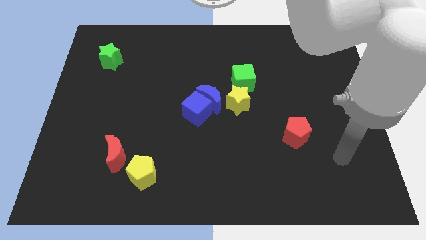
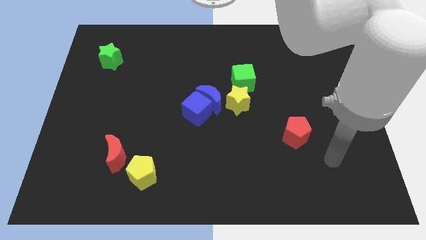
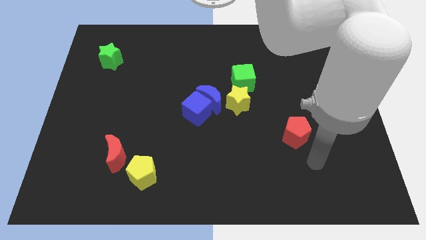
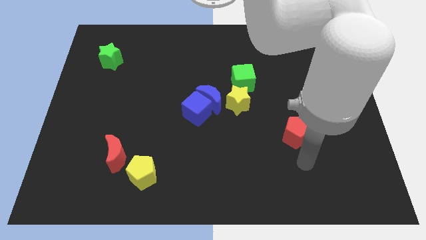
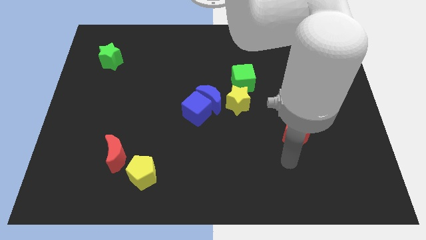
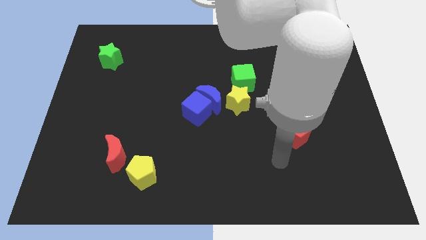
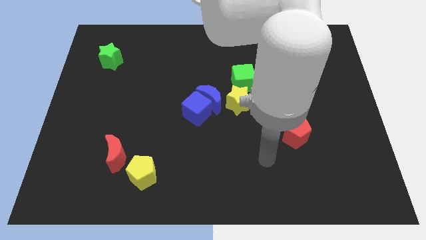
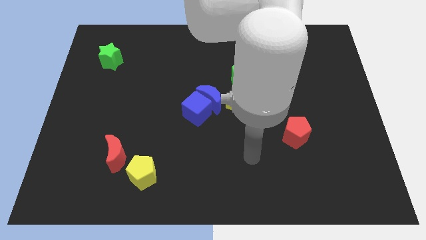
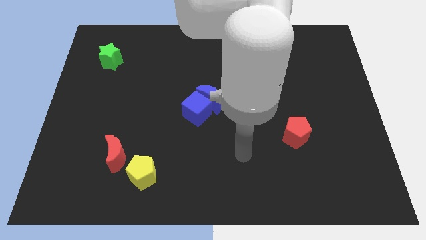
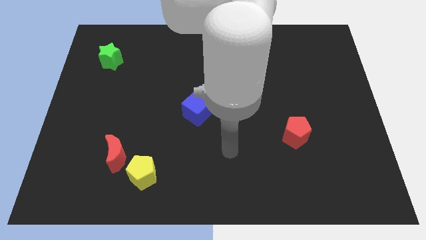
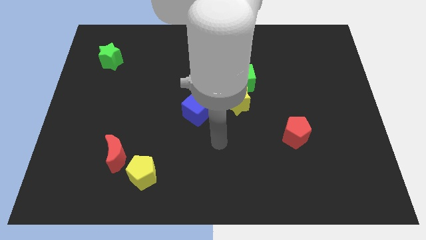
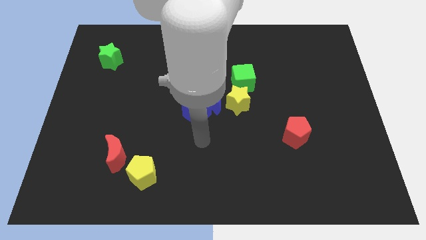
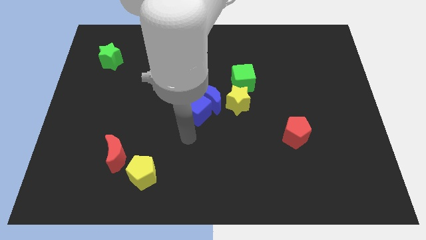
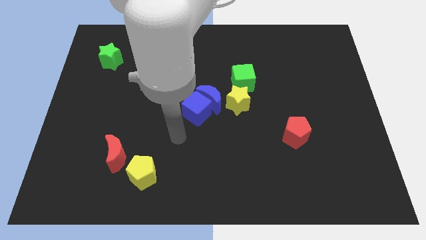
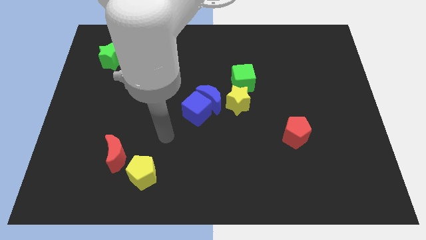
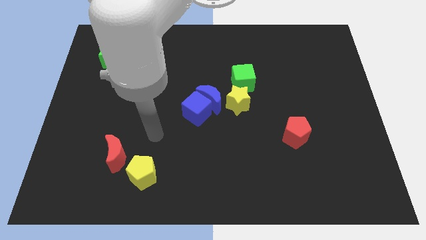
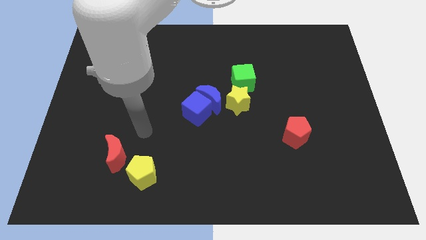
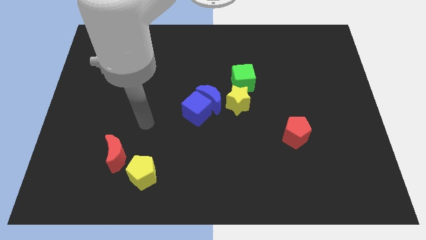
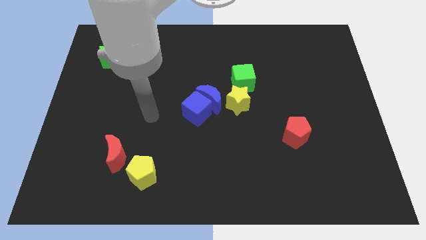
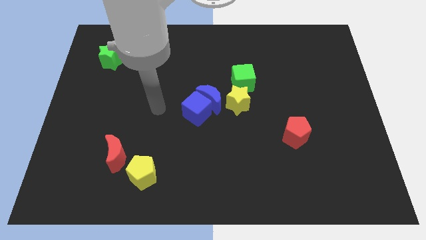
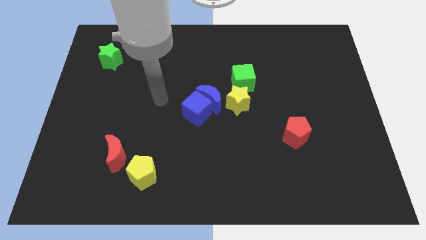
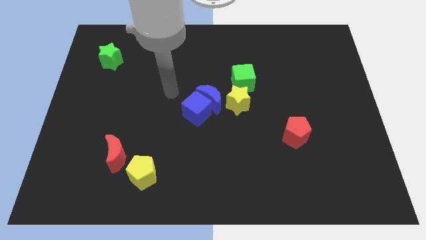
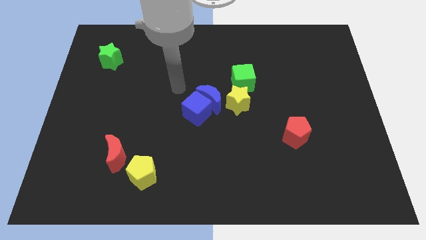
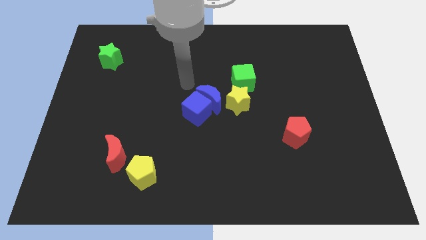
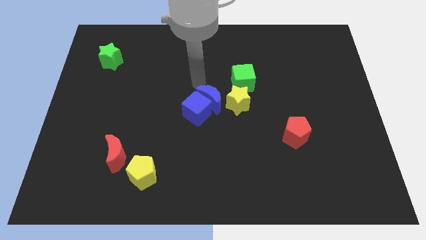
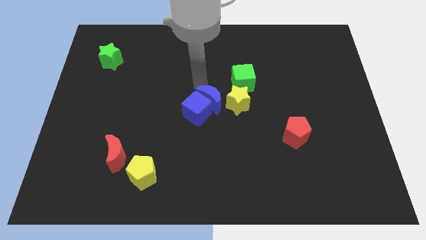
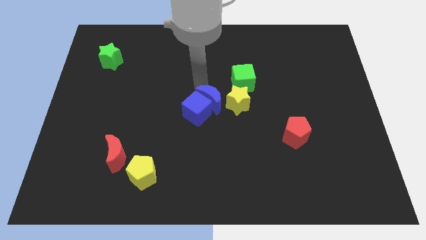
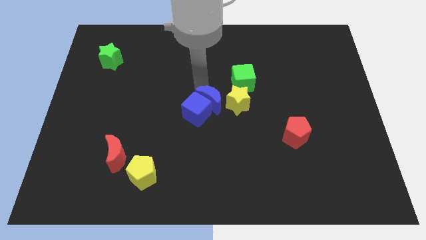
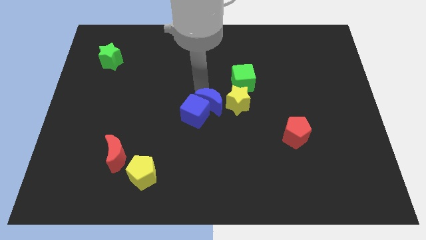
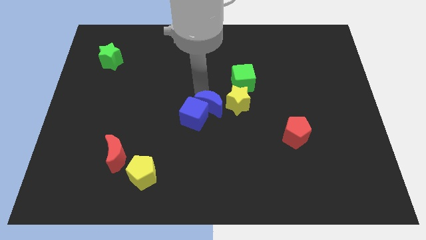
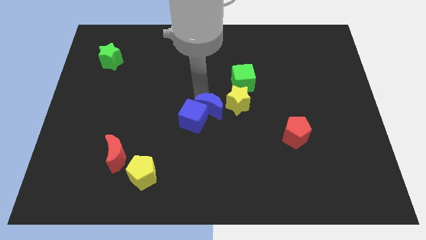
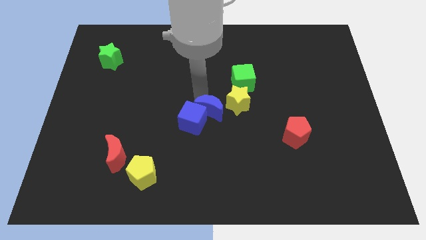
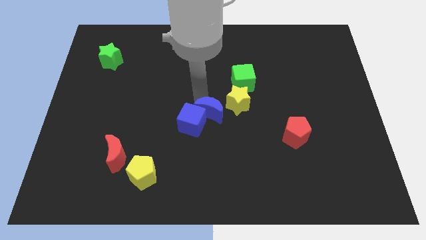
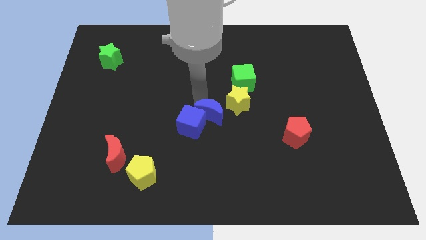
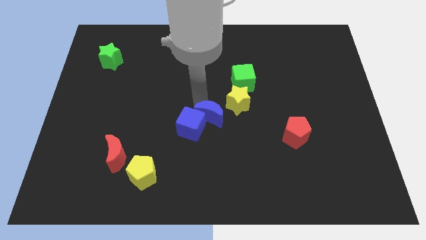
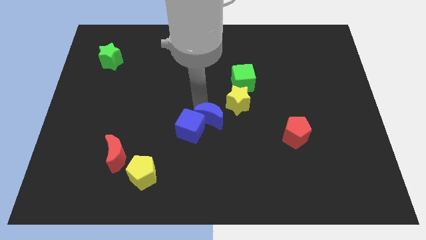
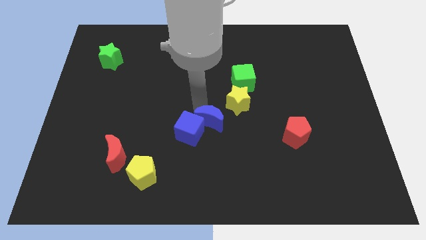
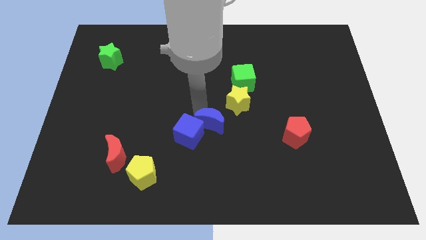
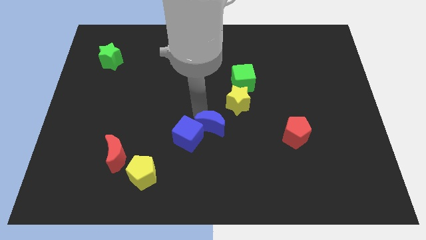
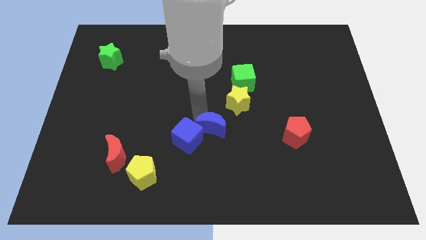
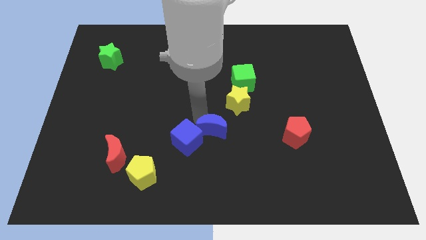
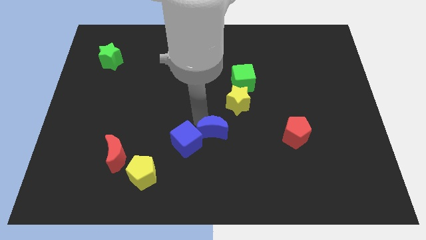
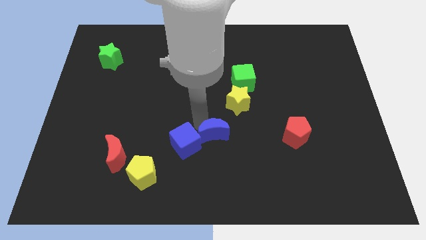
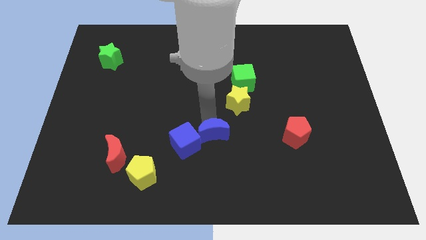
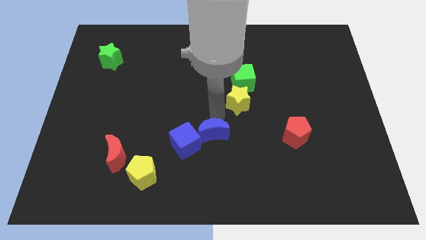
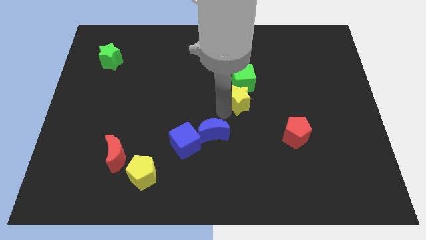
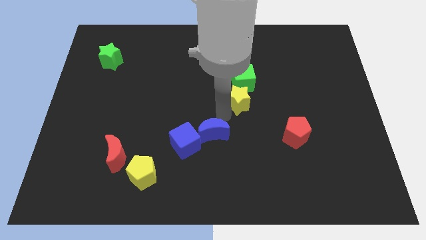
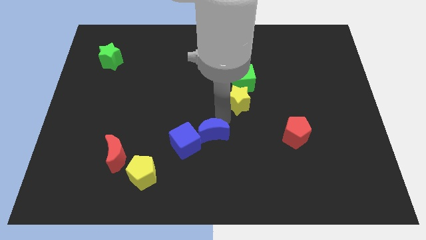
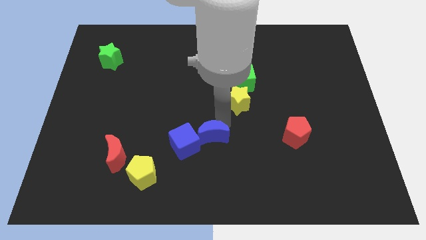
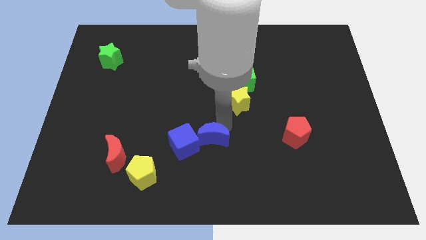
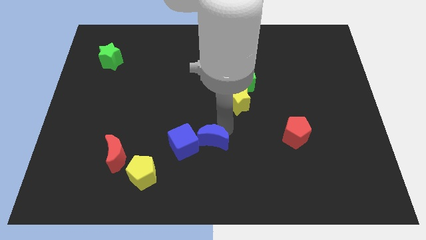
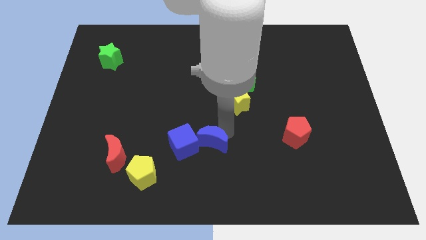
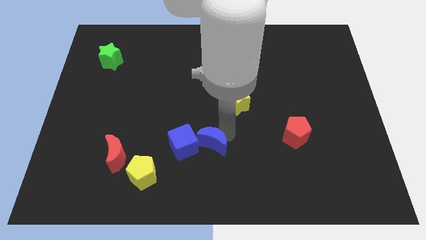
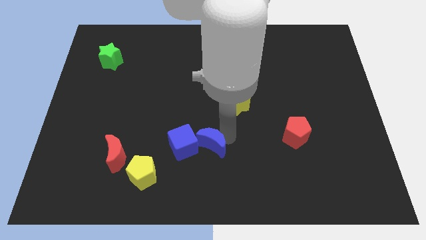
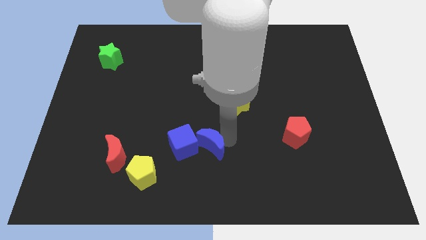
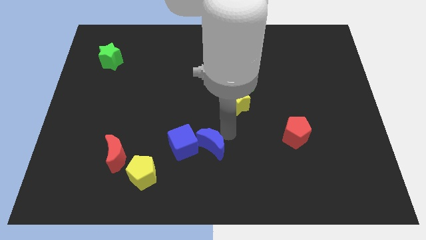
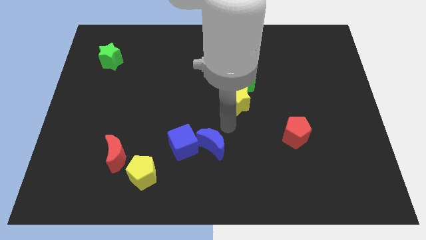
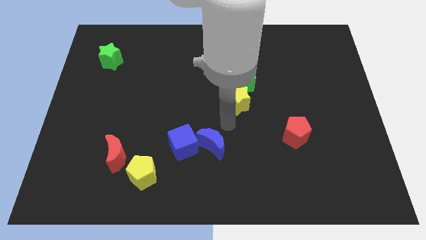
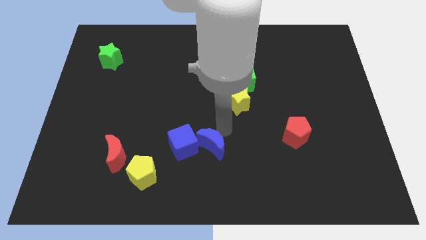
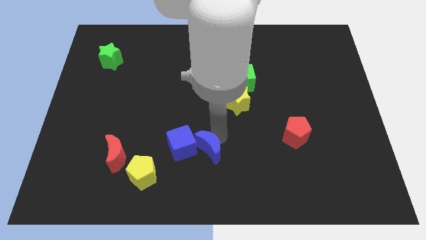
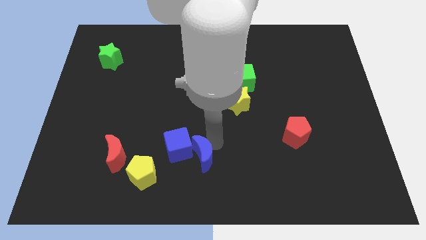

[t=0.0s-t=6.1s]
put the blue moon to the right side of the yellow pentagon
